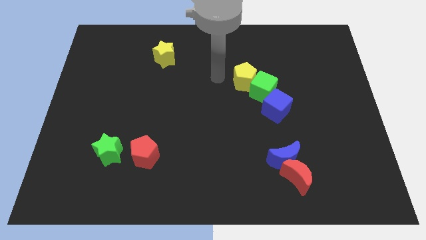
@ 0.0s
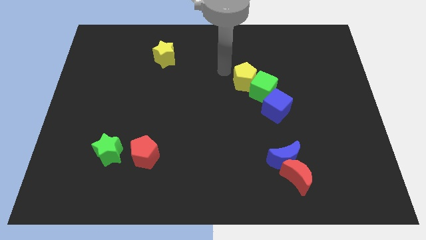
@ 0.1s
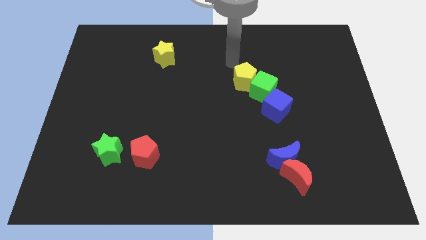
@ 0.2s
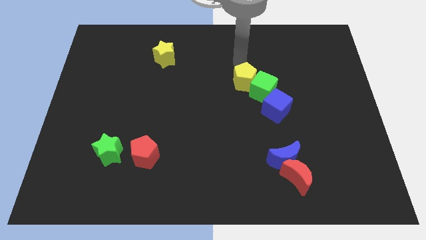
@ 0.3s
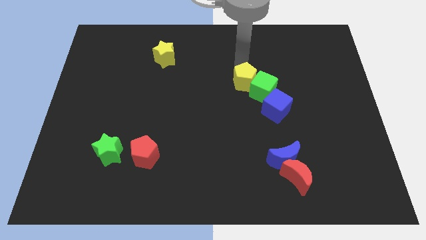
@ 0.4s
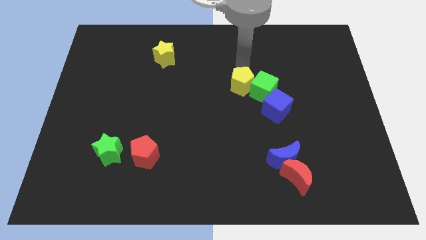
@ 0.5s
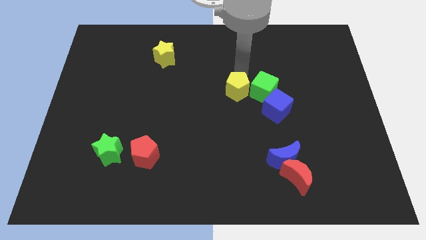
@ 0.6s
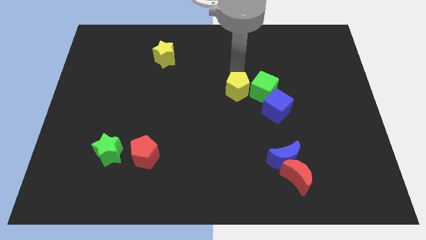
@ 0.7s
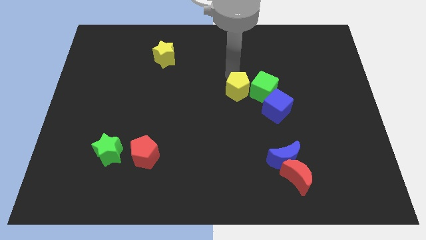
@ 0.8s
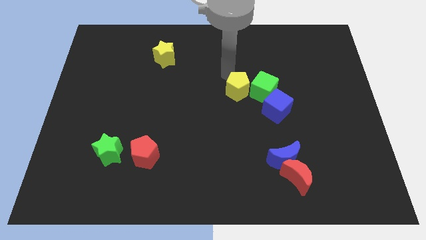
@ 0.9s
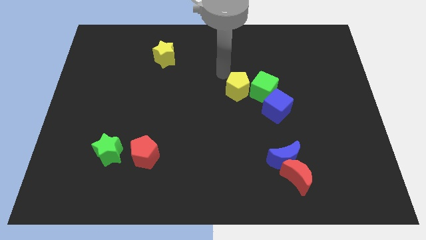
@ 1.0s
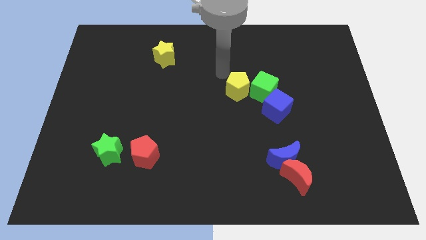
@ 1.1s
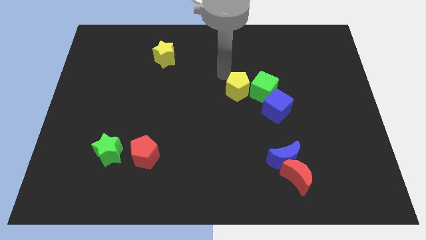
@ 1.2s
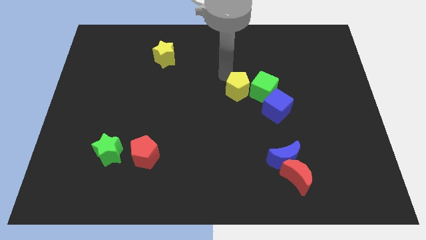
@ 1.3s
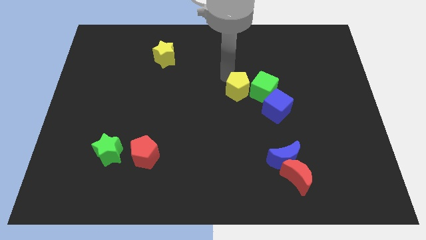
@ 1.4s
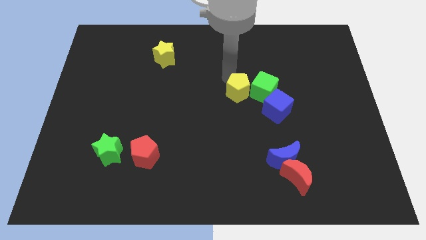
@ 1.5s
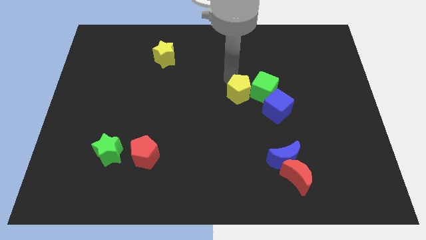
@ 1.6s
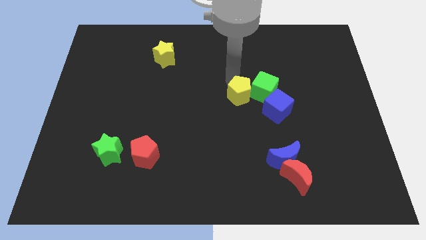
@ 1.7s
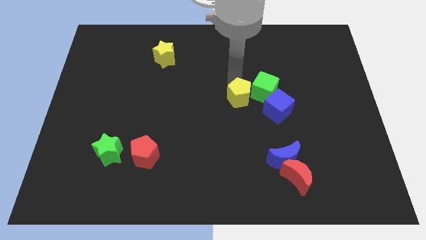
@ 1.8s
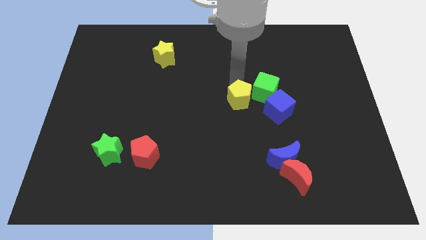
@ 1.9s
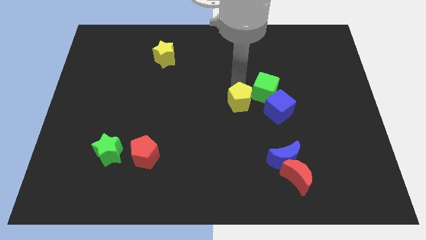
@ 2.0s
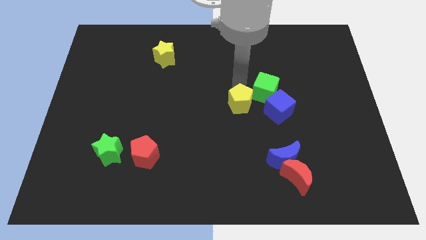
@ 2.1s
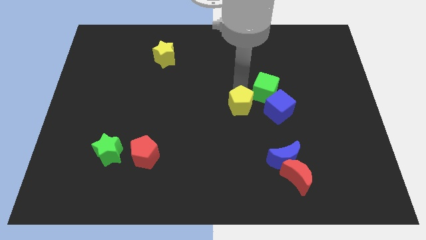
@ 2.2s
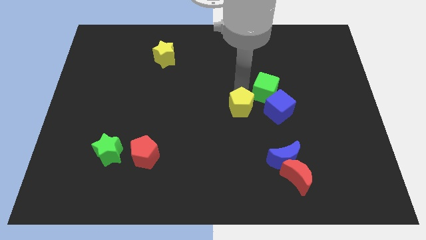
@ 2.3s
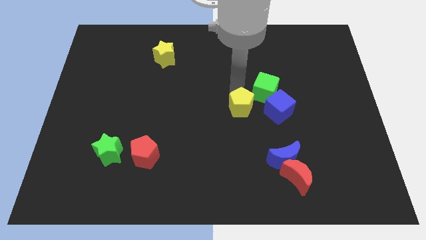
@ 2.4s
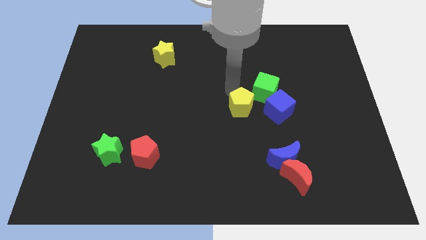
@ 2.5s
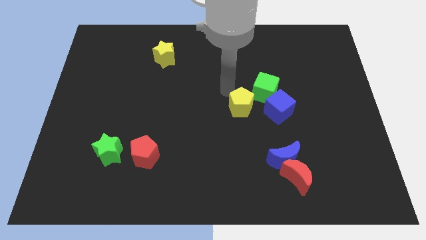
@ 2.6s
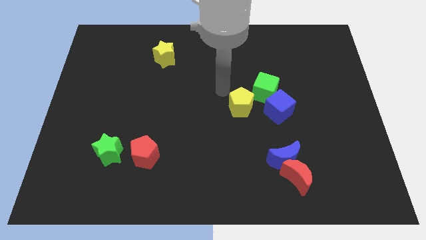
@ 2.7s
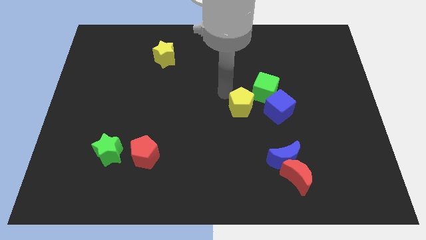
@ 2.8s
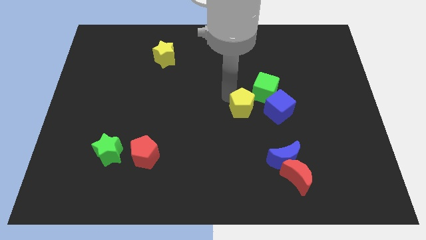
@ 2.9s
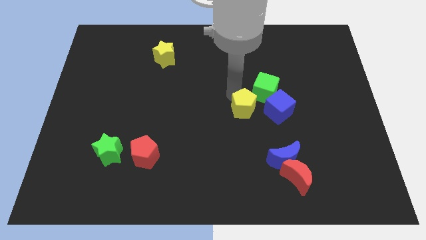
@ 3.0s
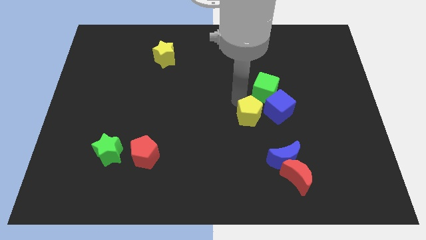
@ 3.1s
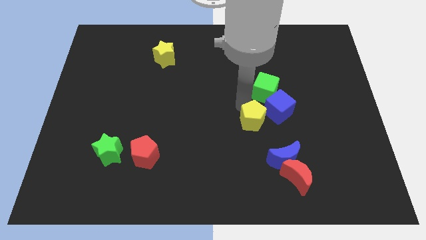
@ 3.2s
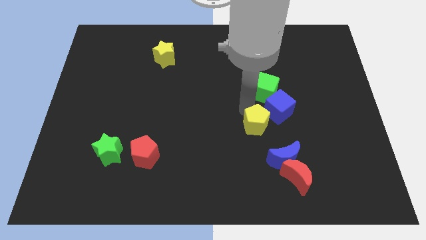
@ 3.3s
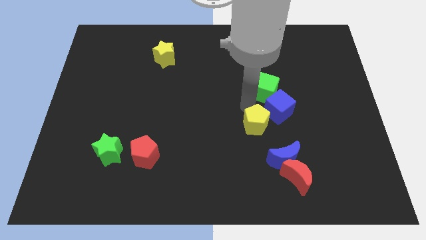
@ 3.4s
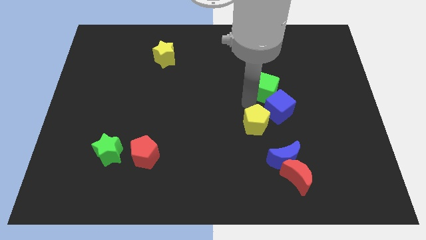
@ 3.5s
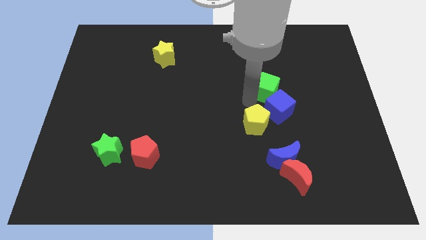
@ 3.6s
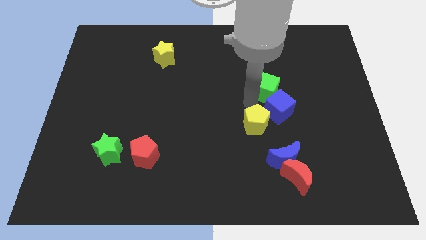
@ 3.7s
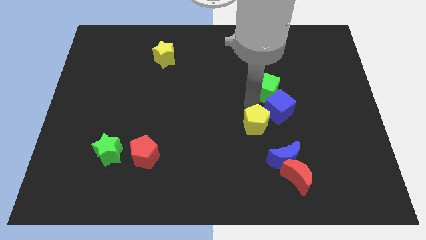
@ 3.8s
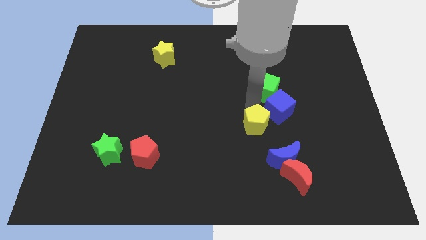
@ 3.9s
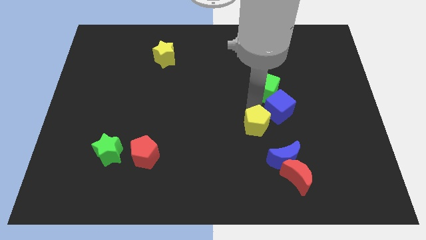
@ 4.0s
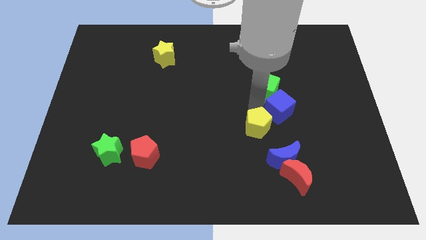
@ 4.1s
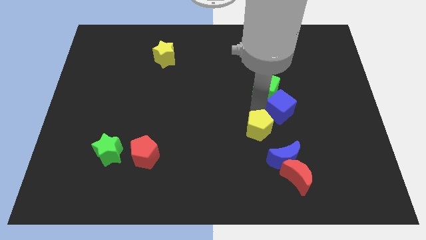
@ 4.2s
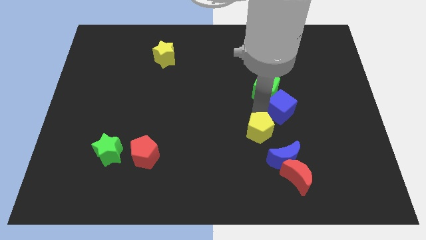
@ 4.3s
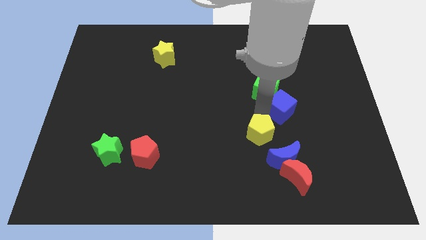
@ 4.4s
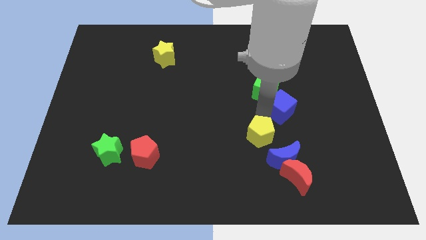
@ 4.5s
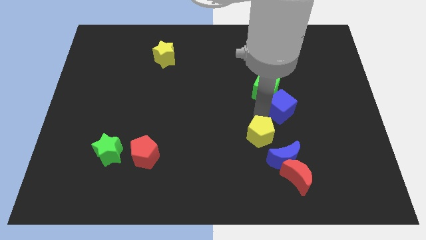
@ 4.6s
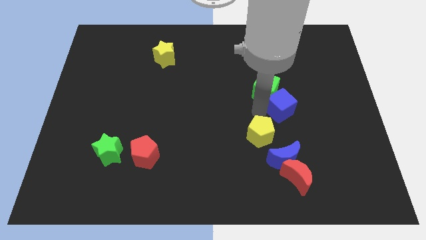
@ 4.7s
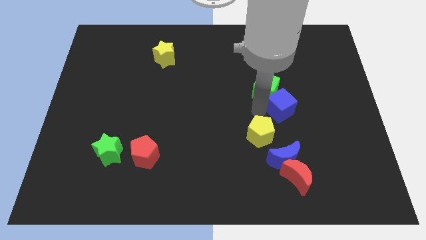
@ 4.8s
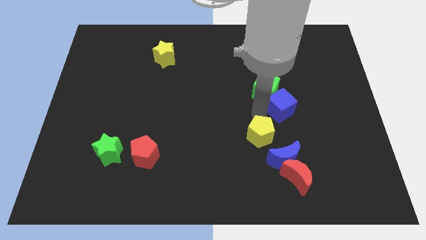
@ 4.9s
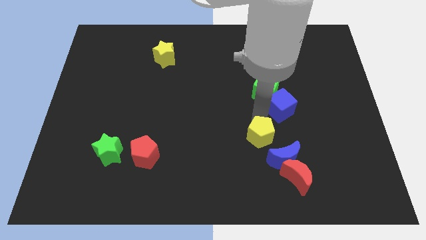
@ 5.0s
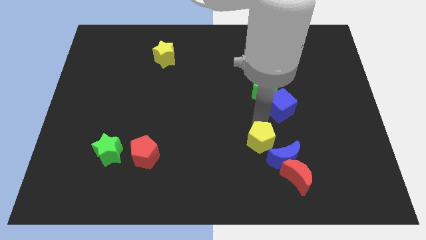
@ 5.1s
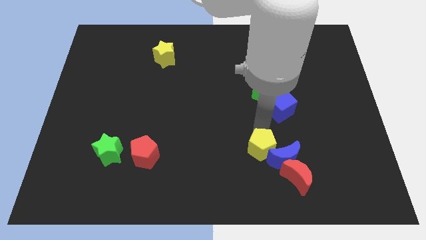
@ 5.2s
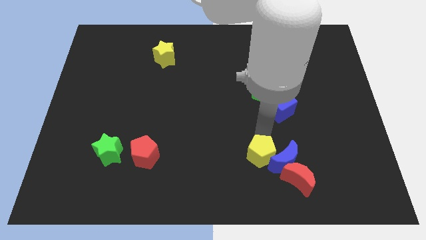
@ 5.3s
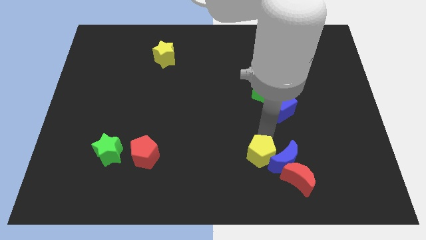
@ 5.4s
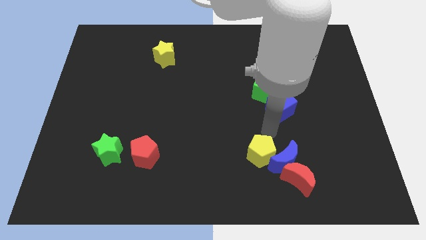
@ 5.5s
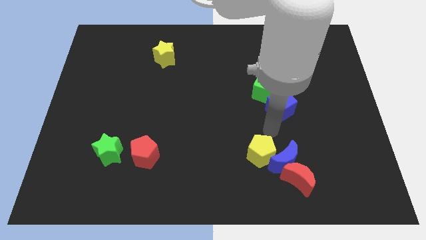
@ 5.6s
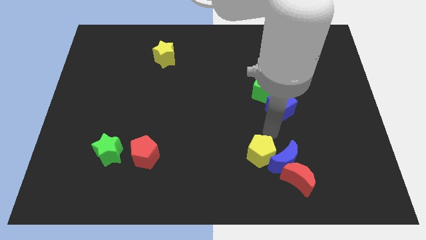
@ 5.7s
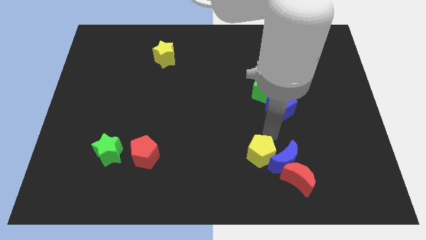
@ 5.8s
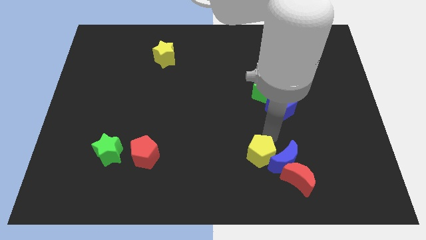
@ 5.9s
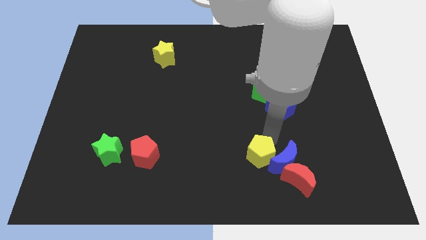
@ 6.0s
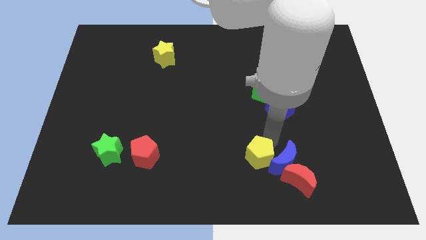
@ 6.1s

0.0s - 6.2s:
push the yellow pentagon diagonally down and to the left of the blue moon

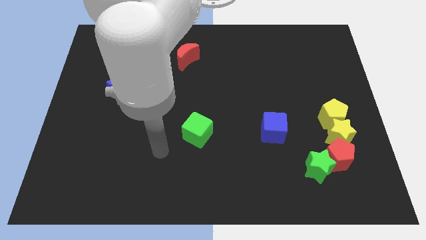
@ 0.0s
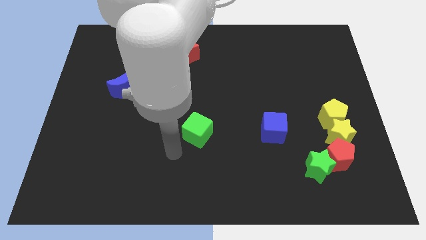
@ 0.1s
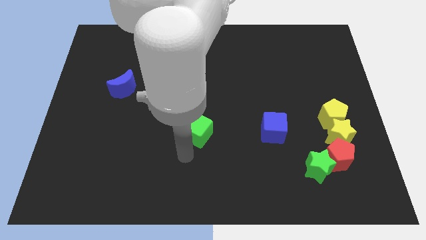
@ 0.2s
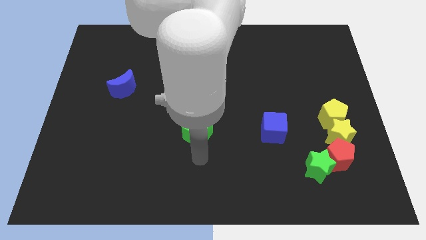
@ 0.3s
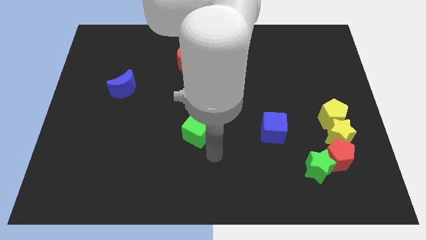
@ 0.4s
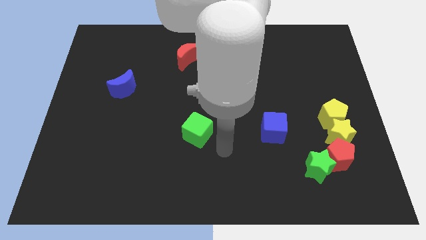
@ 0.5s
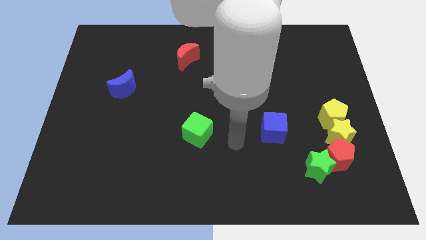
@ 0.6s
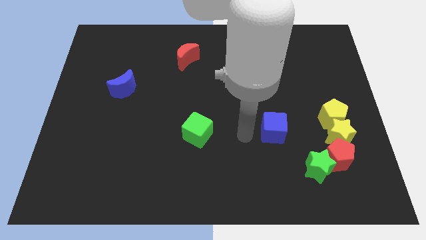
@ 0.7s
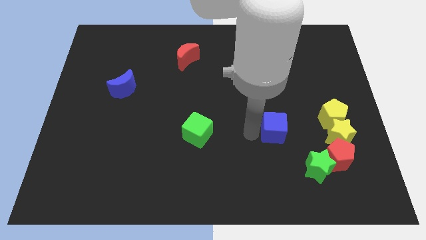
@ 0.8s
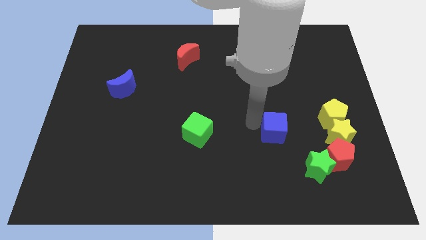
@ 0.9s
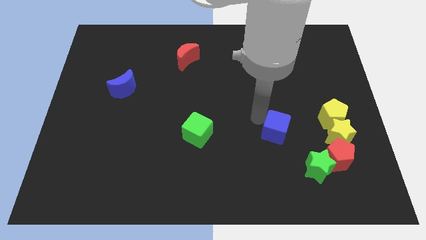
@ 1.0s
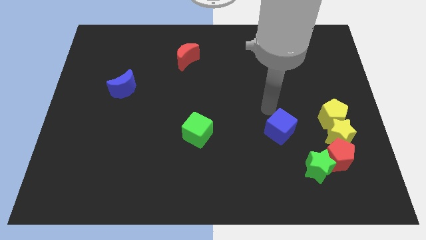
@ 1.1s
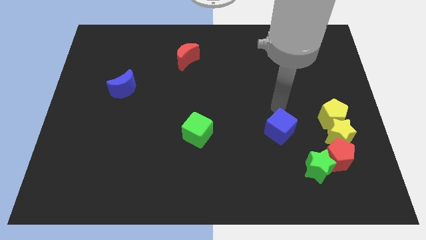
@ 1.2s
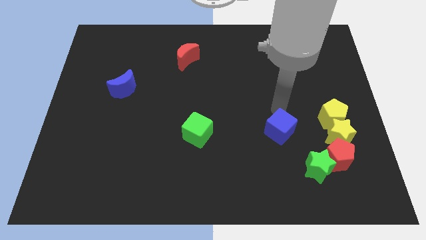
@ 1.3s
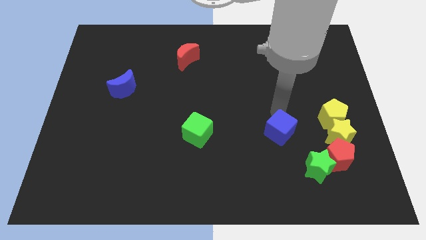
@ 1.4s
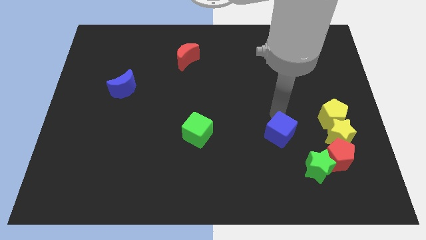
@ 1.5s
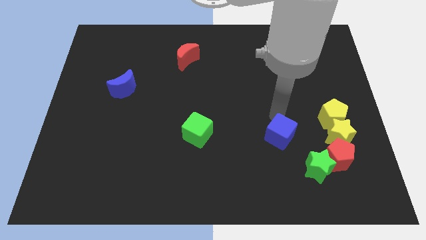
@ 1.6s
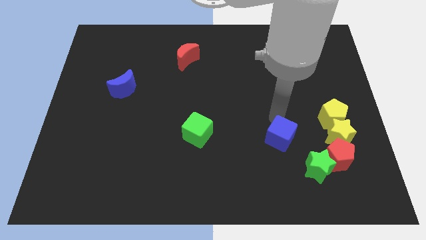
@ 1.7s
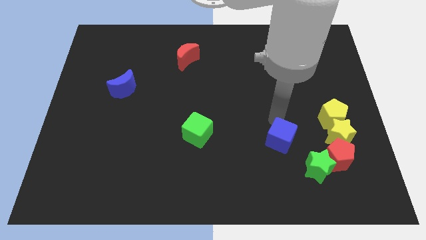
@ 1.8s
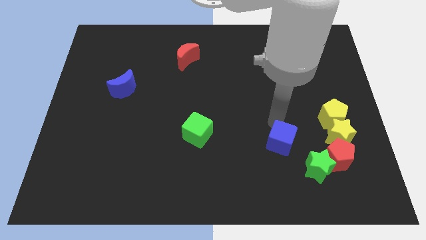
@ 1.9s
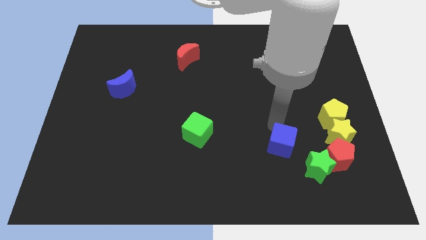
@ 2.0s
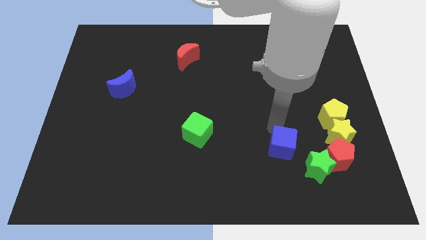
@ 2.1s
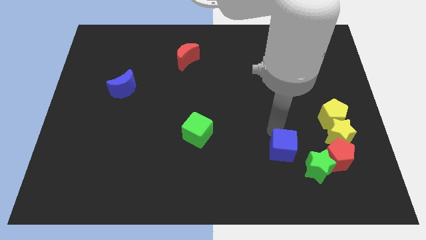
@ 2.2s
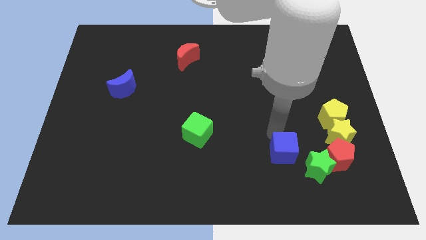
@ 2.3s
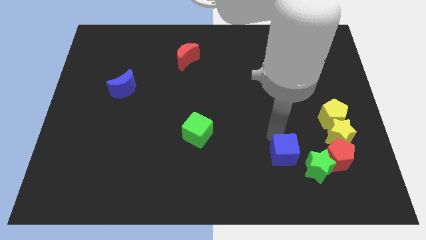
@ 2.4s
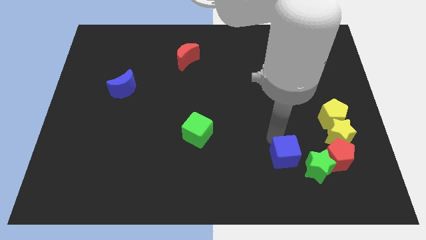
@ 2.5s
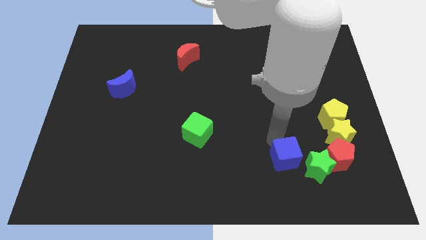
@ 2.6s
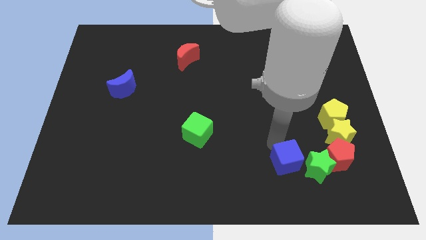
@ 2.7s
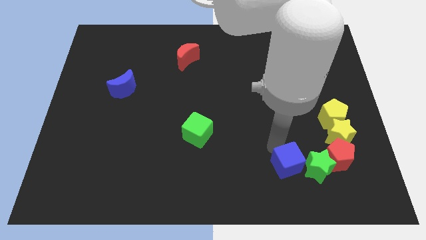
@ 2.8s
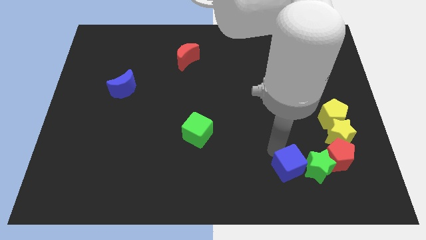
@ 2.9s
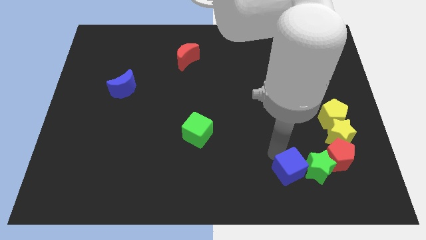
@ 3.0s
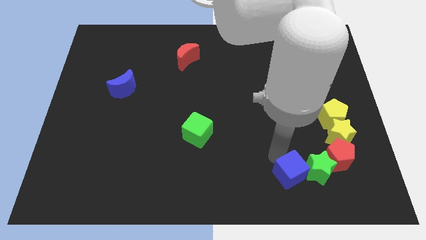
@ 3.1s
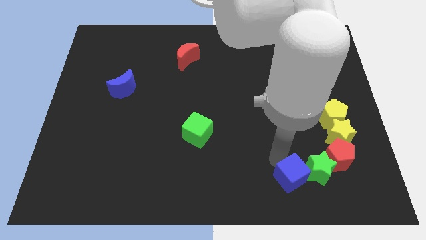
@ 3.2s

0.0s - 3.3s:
put the blue cube to the bottom left side of the red pentagon
